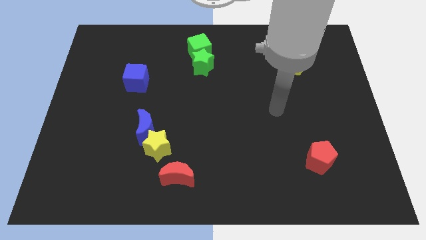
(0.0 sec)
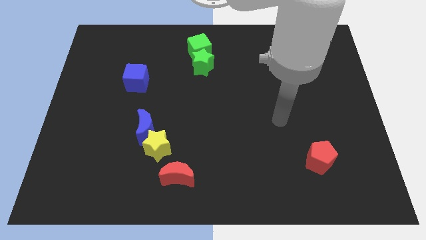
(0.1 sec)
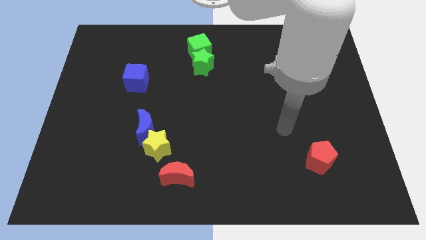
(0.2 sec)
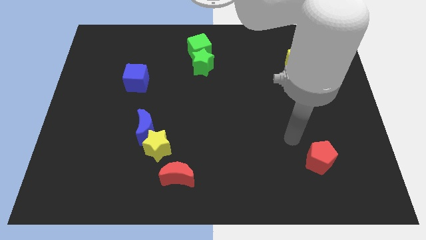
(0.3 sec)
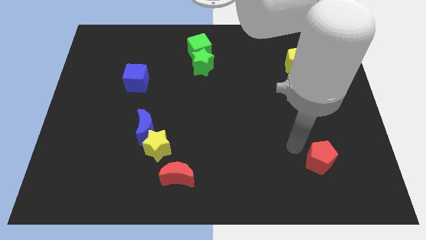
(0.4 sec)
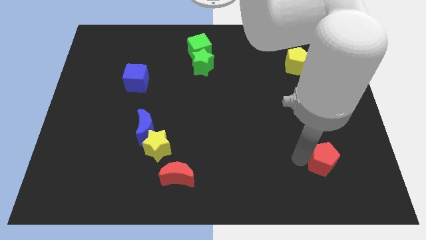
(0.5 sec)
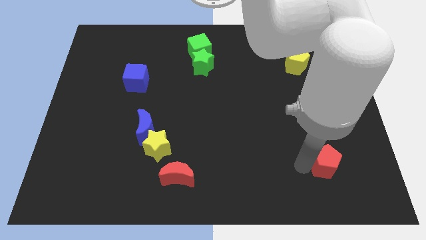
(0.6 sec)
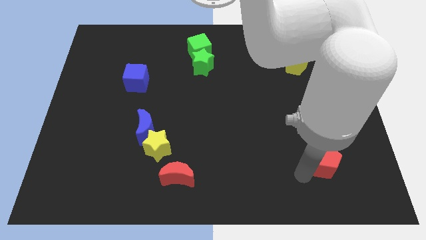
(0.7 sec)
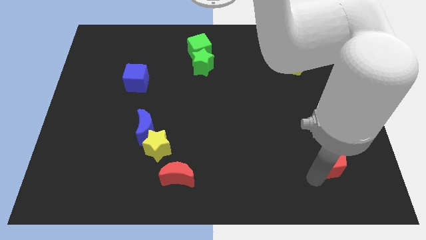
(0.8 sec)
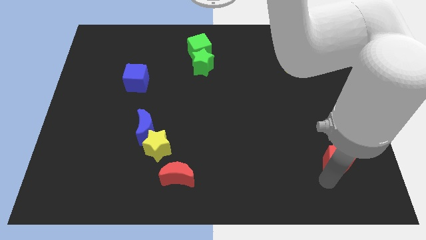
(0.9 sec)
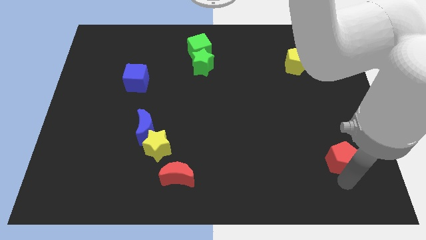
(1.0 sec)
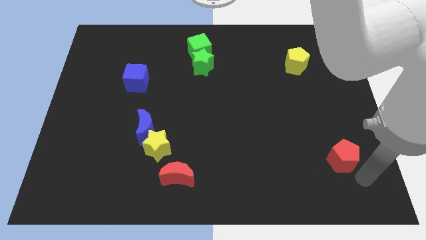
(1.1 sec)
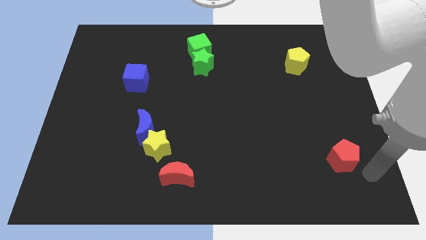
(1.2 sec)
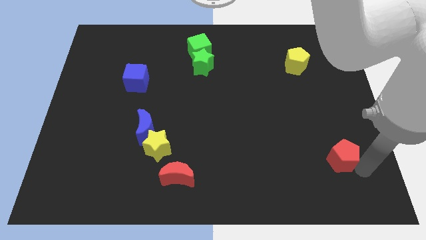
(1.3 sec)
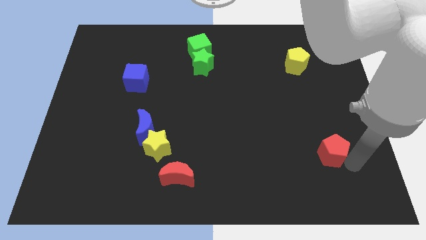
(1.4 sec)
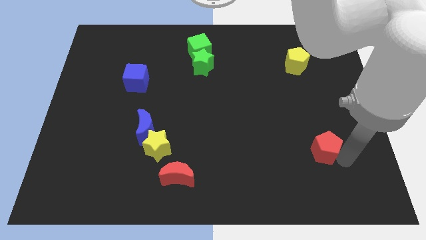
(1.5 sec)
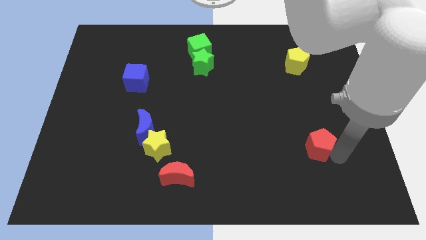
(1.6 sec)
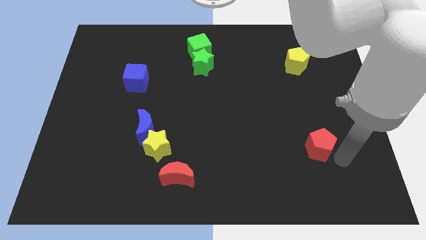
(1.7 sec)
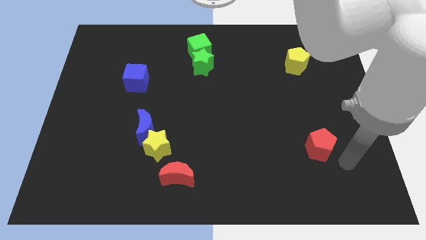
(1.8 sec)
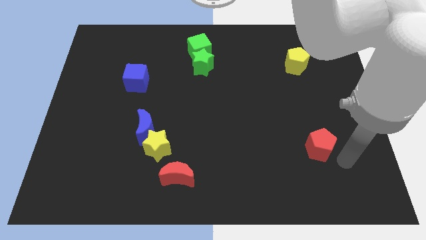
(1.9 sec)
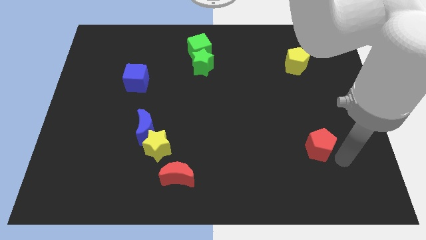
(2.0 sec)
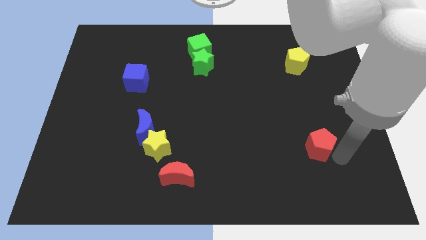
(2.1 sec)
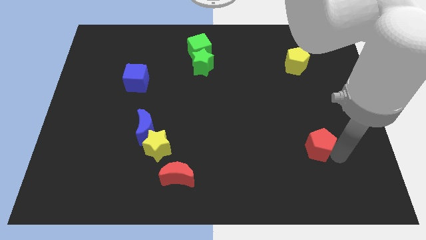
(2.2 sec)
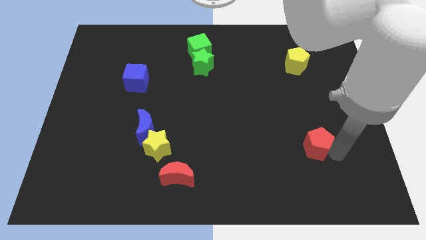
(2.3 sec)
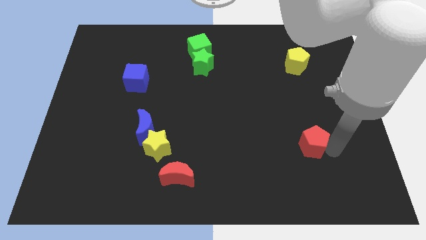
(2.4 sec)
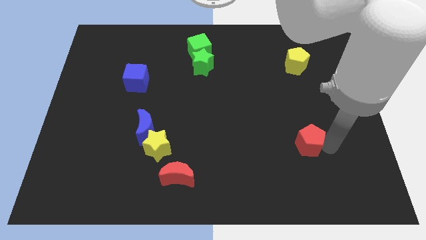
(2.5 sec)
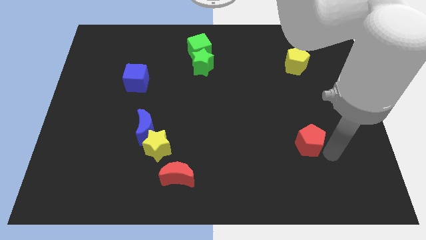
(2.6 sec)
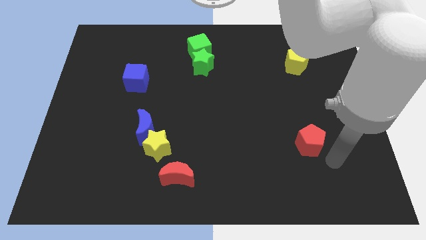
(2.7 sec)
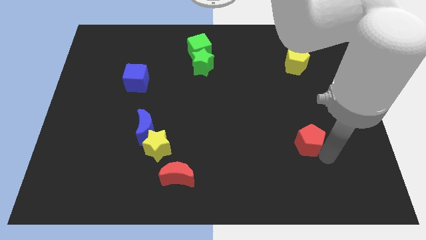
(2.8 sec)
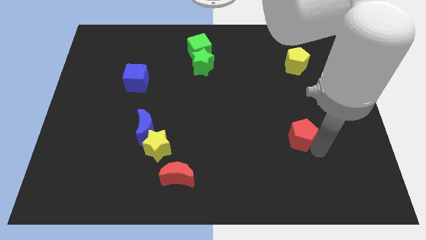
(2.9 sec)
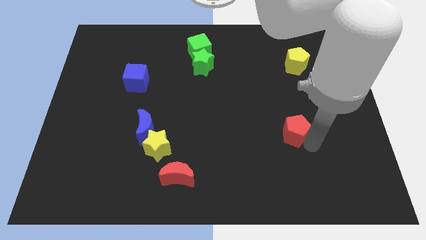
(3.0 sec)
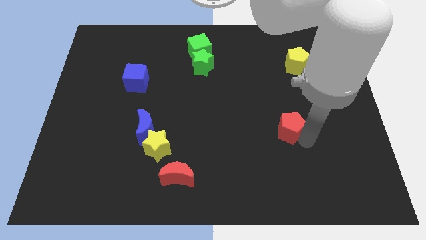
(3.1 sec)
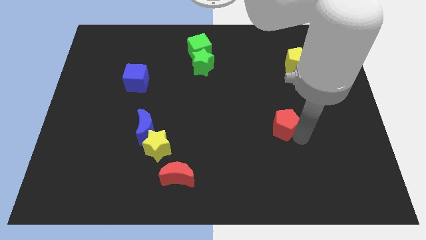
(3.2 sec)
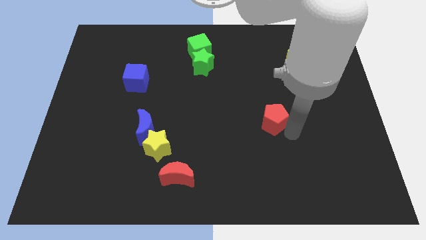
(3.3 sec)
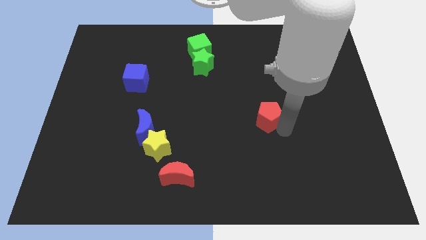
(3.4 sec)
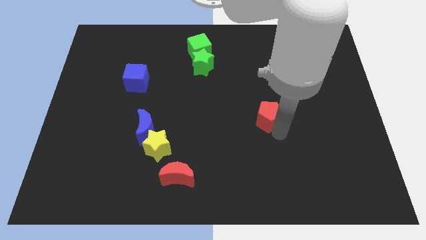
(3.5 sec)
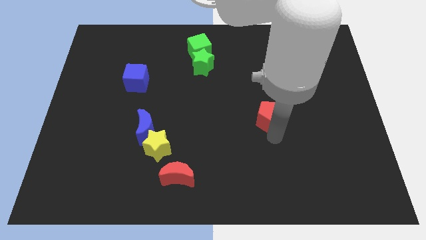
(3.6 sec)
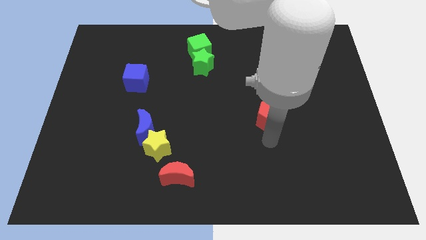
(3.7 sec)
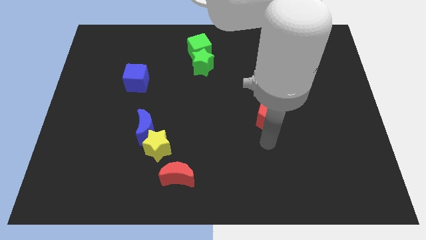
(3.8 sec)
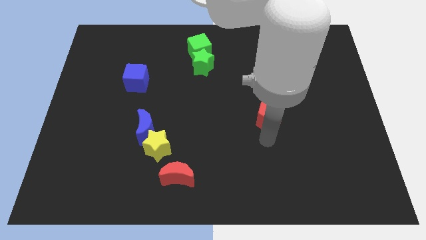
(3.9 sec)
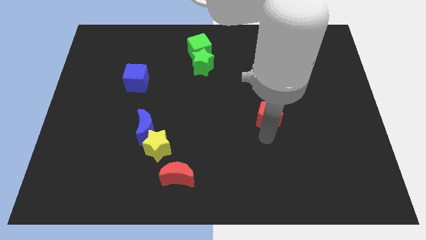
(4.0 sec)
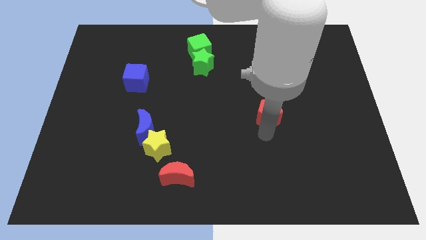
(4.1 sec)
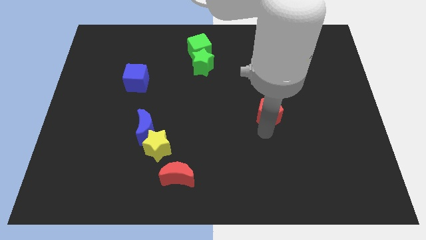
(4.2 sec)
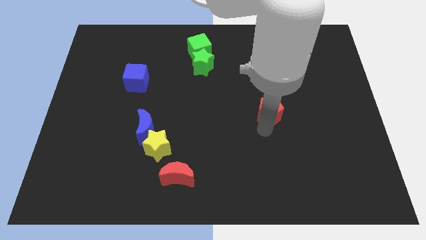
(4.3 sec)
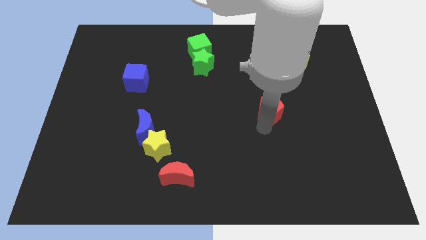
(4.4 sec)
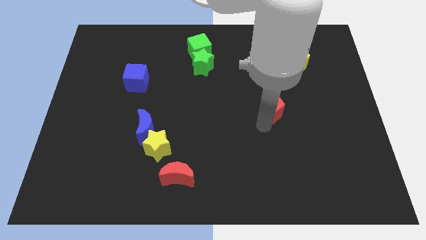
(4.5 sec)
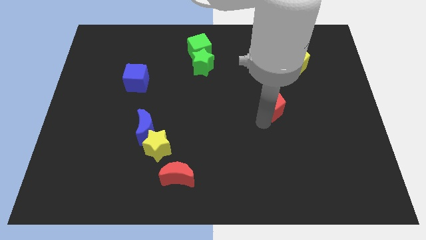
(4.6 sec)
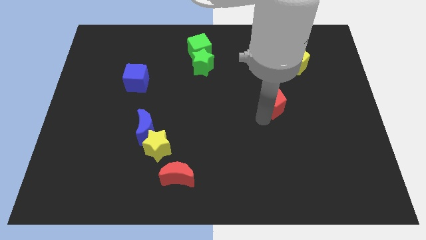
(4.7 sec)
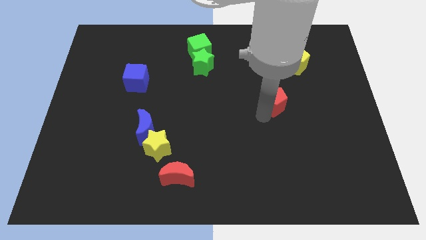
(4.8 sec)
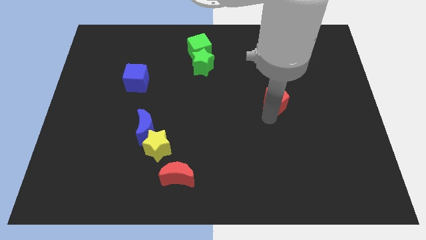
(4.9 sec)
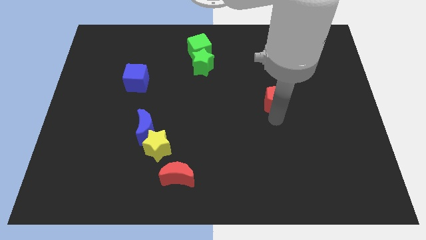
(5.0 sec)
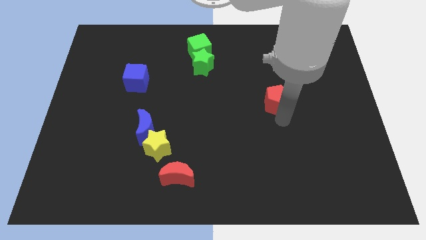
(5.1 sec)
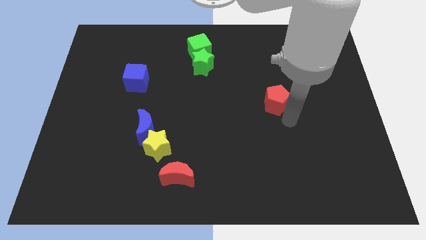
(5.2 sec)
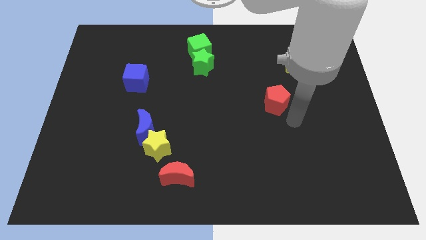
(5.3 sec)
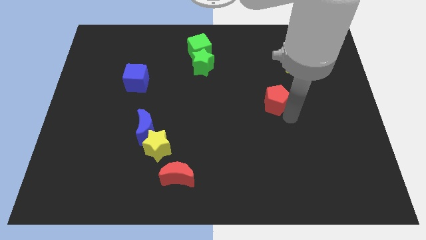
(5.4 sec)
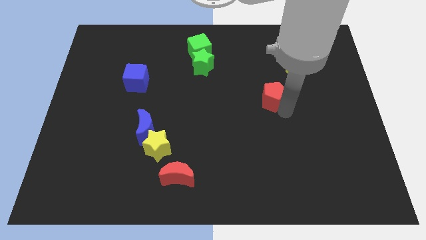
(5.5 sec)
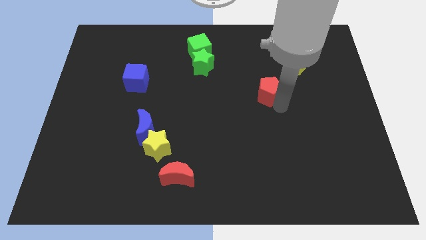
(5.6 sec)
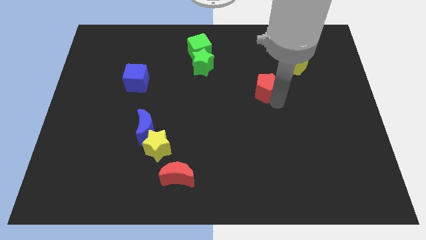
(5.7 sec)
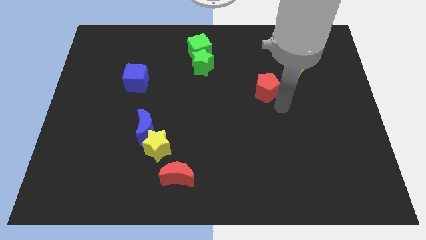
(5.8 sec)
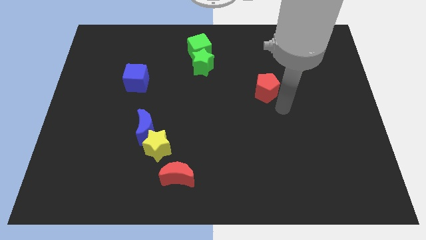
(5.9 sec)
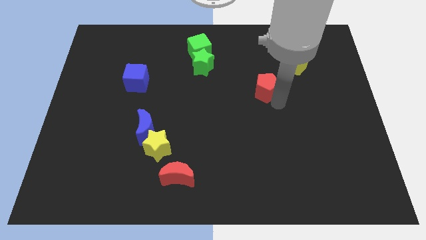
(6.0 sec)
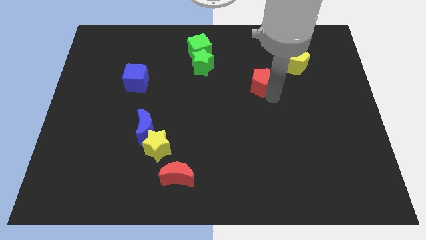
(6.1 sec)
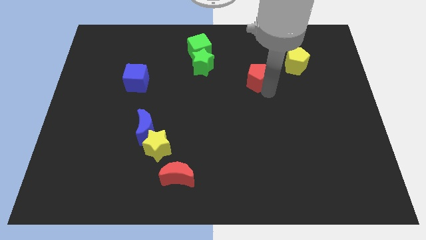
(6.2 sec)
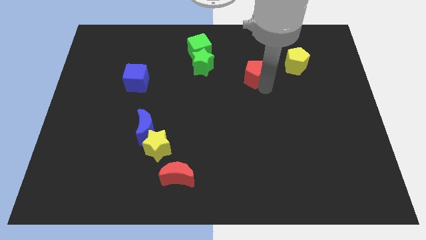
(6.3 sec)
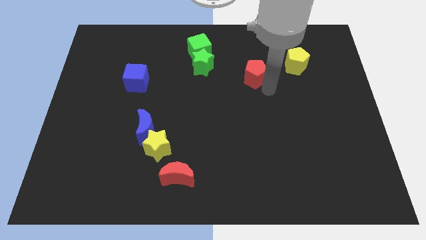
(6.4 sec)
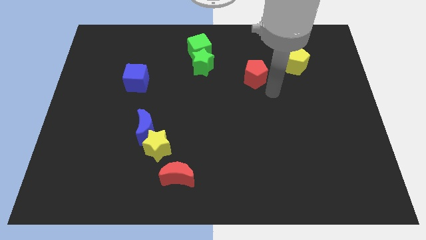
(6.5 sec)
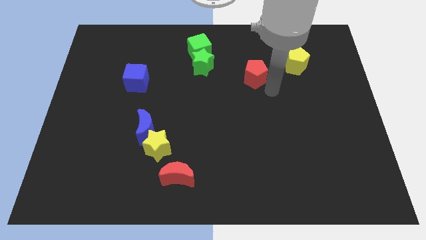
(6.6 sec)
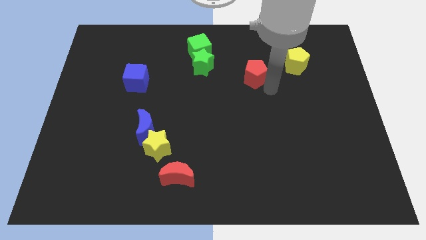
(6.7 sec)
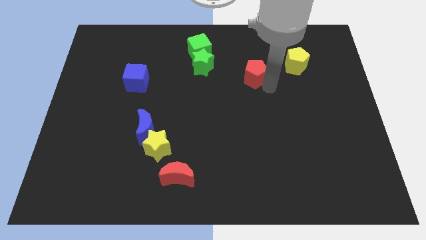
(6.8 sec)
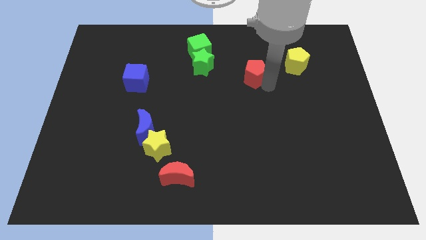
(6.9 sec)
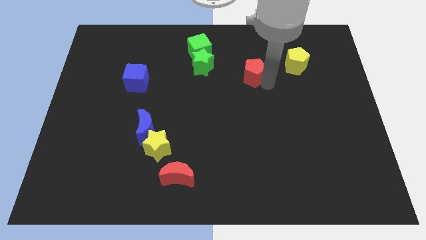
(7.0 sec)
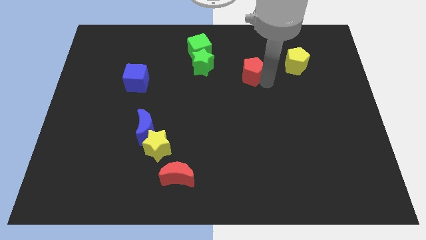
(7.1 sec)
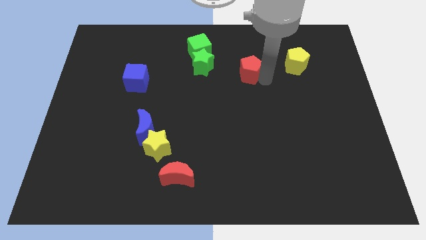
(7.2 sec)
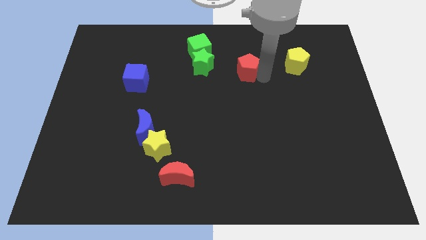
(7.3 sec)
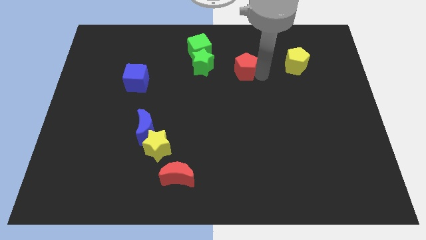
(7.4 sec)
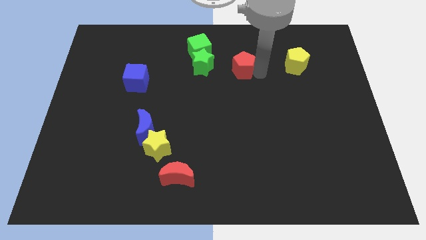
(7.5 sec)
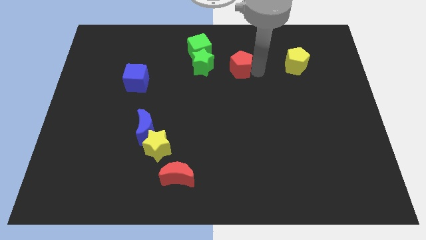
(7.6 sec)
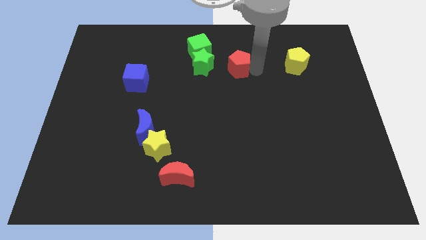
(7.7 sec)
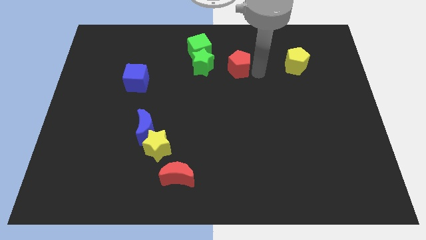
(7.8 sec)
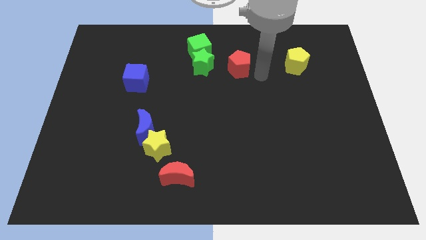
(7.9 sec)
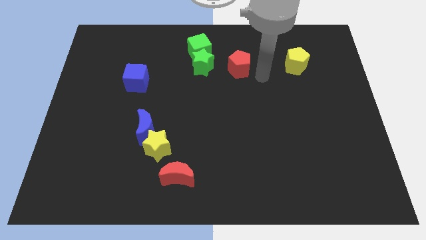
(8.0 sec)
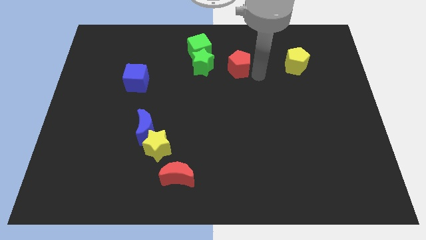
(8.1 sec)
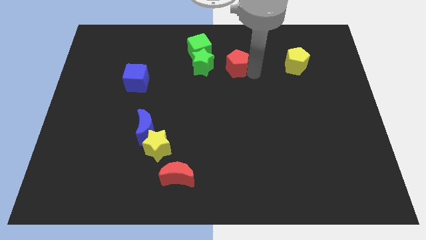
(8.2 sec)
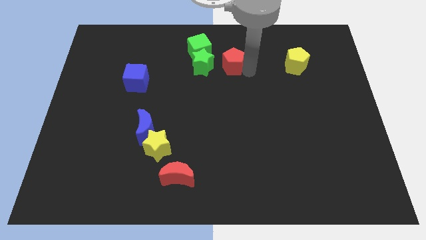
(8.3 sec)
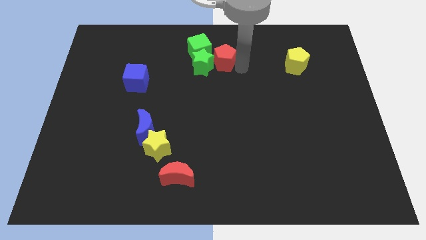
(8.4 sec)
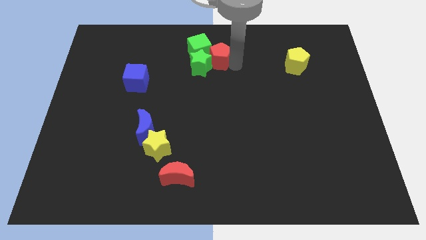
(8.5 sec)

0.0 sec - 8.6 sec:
push the red pentagon towards the green cube
